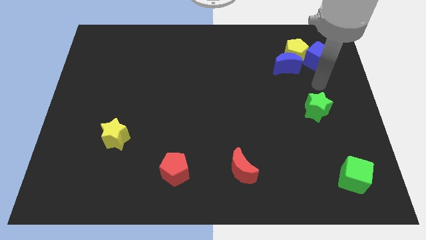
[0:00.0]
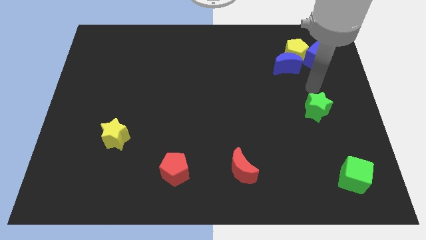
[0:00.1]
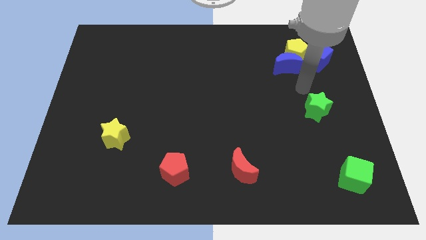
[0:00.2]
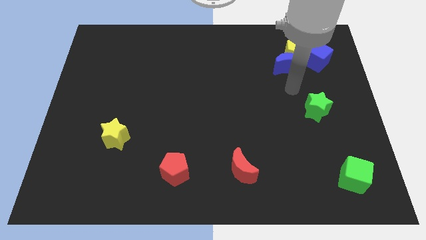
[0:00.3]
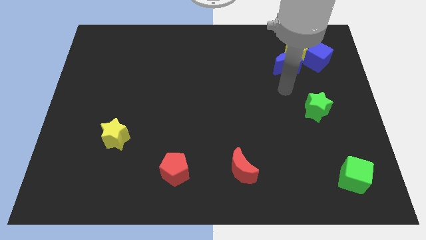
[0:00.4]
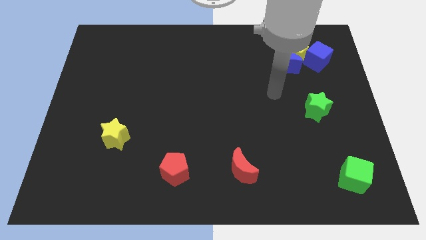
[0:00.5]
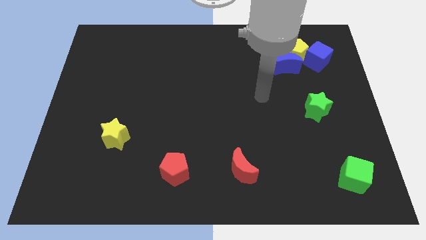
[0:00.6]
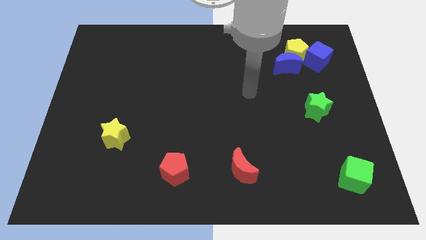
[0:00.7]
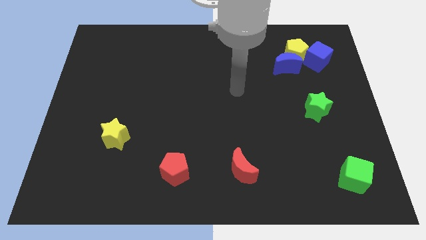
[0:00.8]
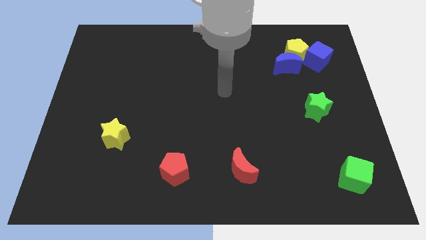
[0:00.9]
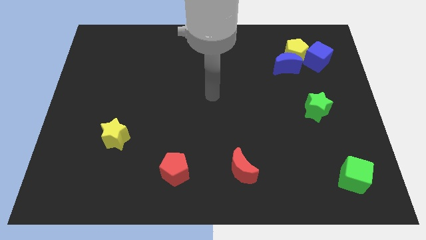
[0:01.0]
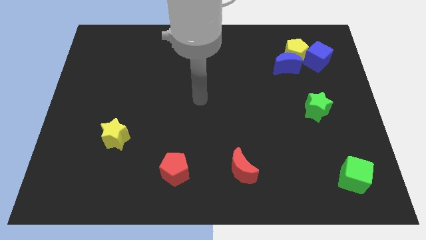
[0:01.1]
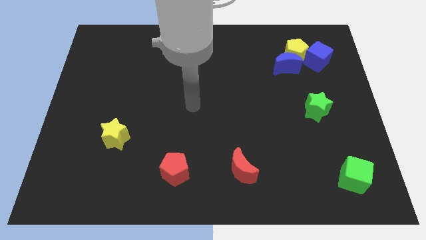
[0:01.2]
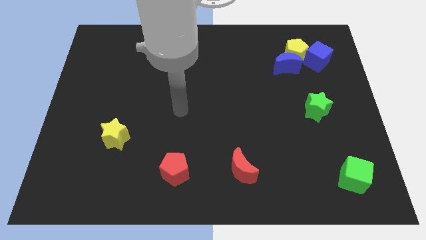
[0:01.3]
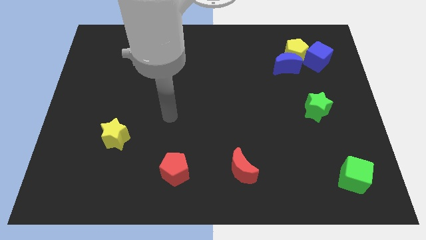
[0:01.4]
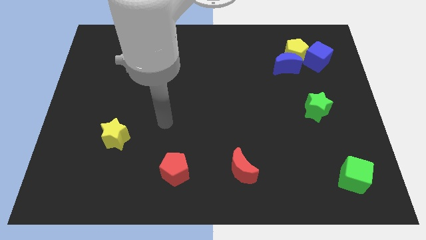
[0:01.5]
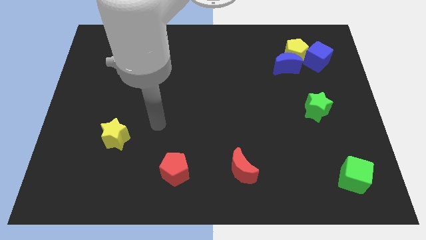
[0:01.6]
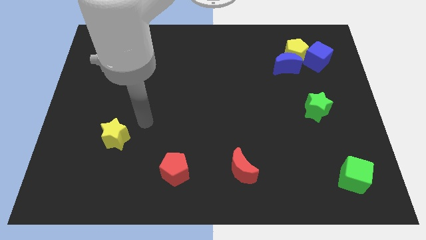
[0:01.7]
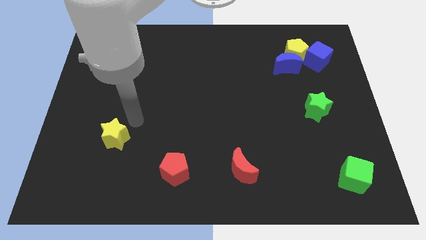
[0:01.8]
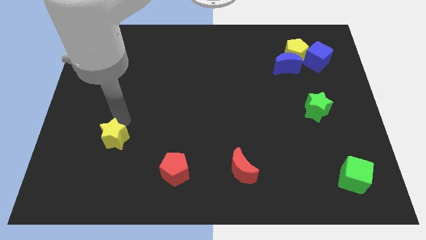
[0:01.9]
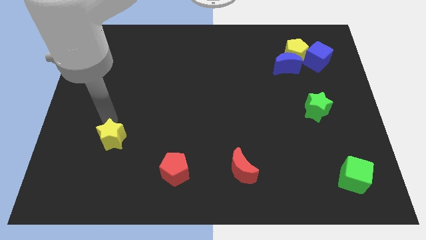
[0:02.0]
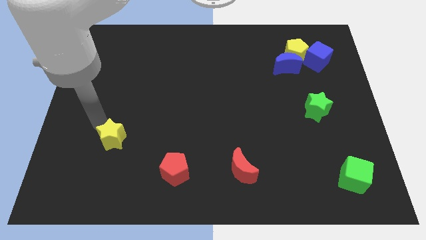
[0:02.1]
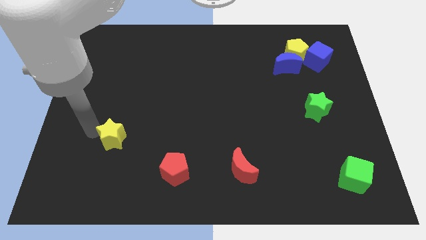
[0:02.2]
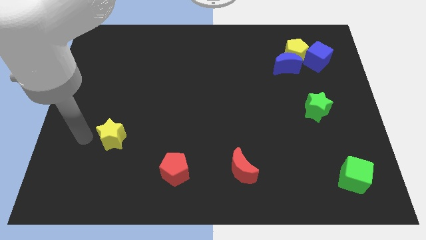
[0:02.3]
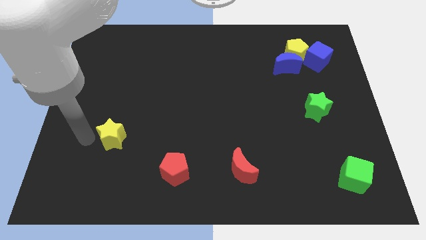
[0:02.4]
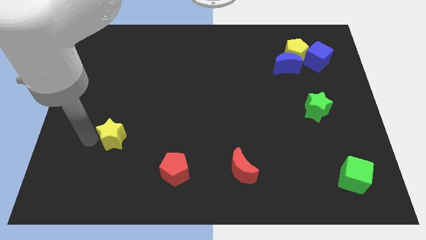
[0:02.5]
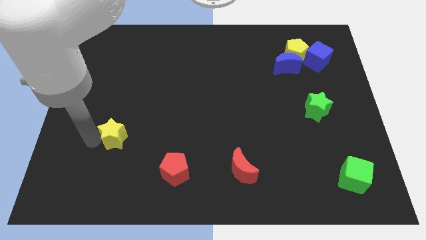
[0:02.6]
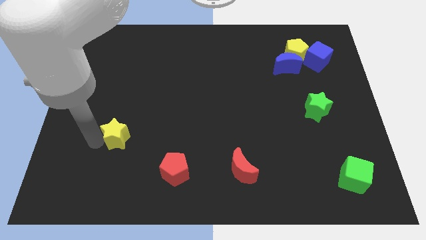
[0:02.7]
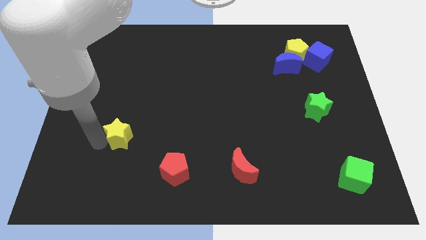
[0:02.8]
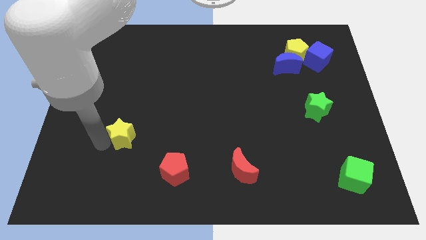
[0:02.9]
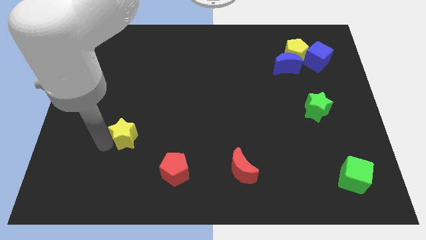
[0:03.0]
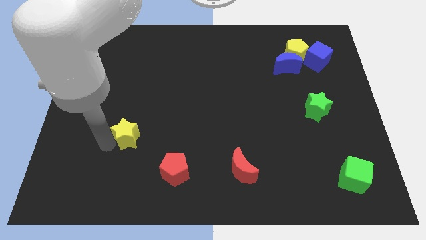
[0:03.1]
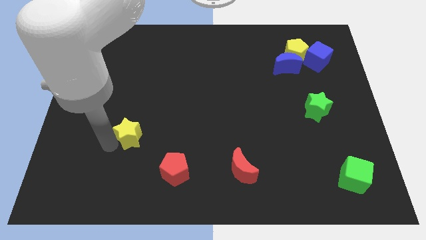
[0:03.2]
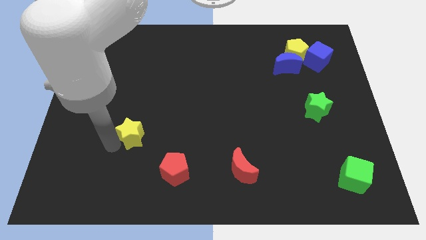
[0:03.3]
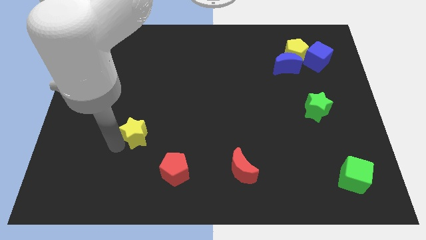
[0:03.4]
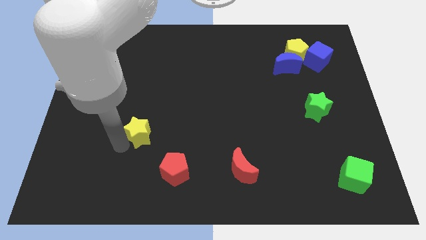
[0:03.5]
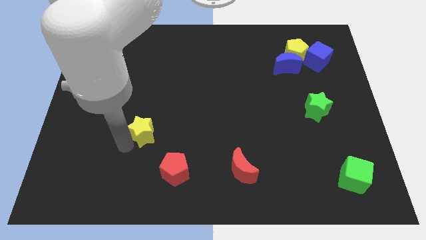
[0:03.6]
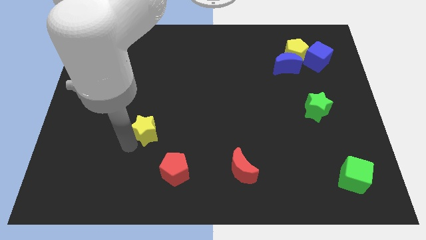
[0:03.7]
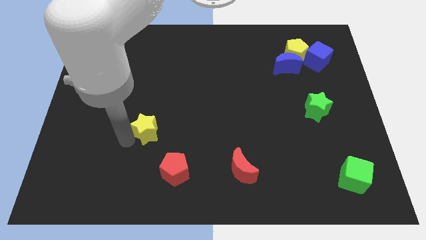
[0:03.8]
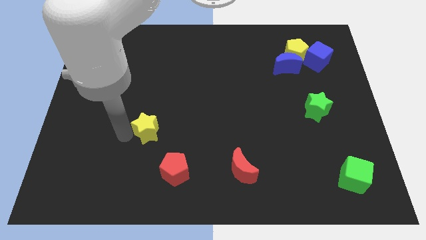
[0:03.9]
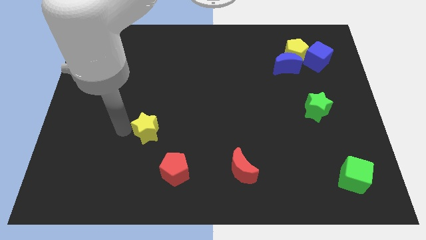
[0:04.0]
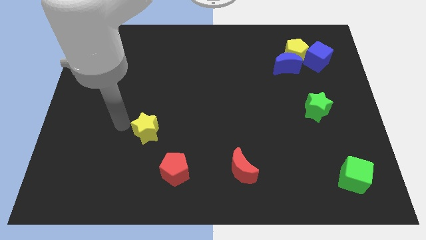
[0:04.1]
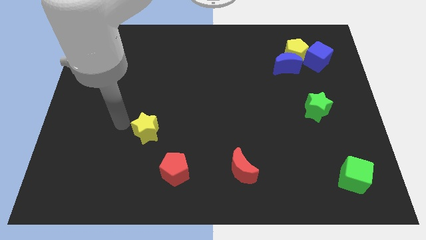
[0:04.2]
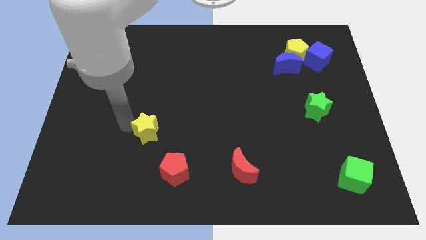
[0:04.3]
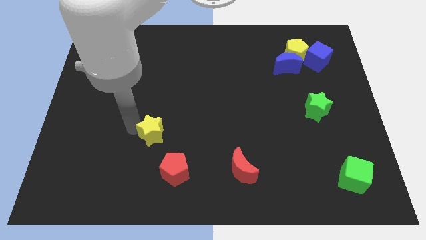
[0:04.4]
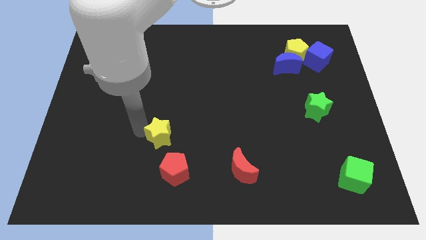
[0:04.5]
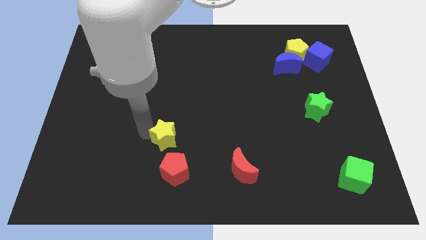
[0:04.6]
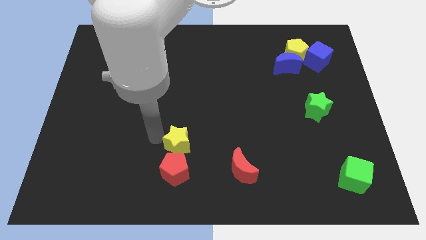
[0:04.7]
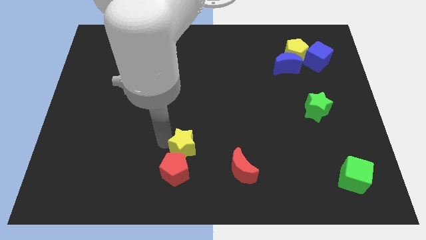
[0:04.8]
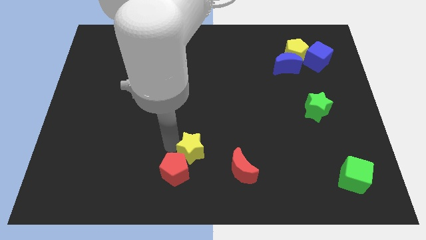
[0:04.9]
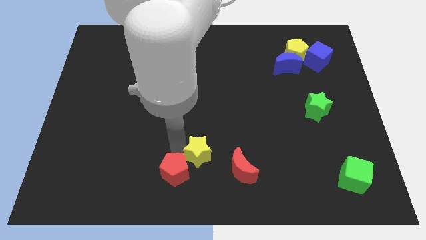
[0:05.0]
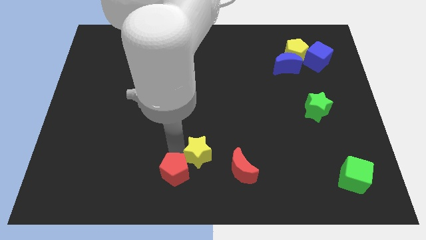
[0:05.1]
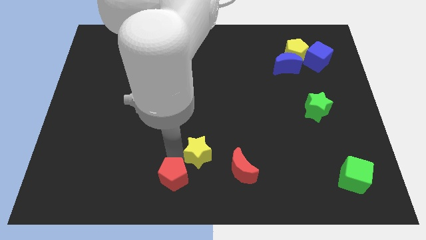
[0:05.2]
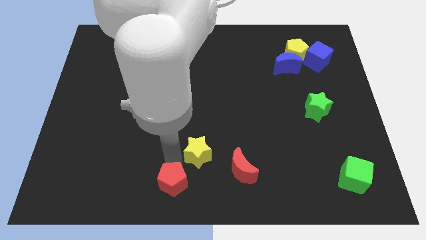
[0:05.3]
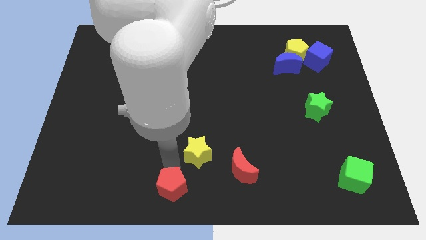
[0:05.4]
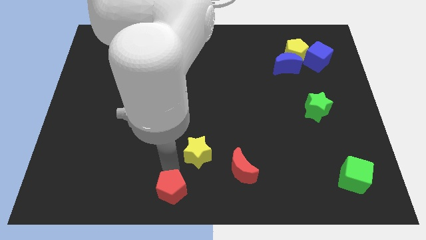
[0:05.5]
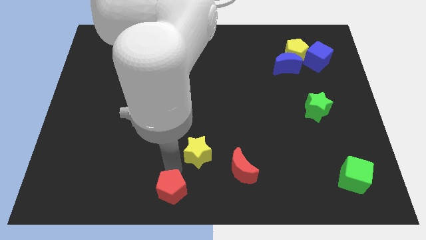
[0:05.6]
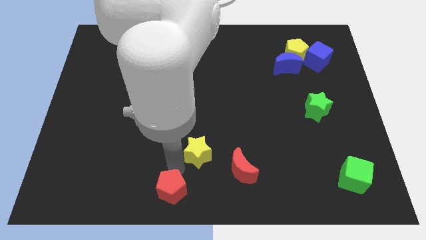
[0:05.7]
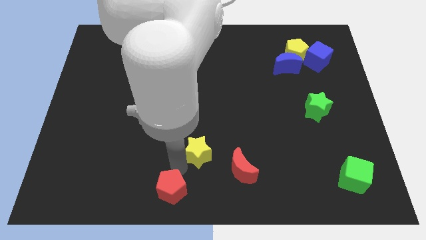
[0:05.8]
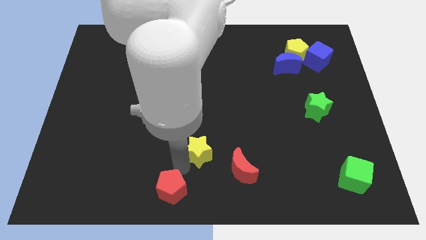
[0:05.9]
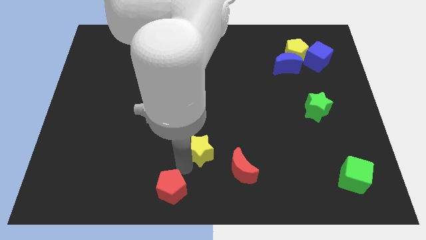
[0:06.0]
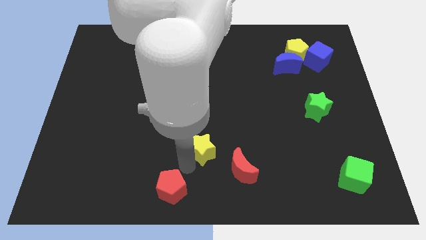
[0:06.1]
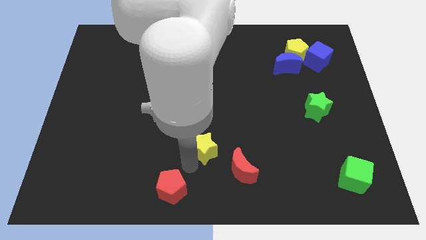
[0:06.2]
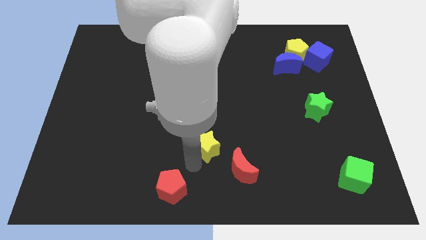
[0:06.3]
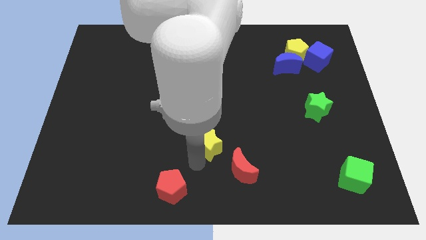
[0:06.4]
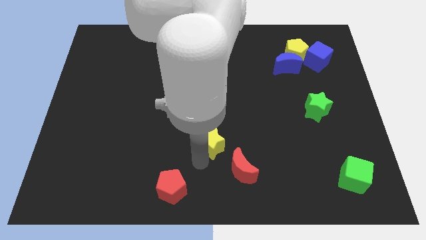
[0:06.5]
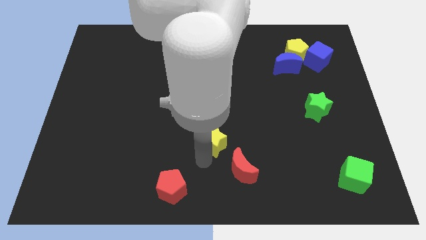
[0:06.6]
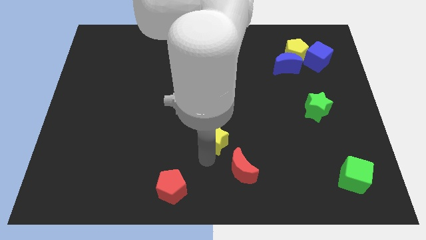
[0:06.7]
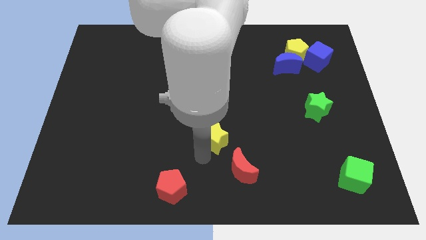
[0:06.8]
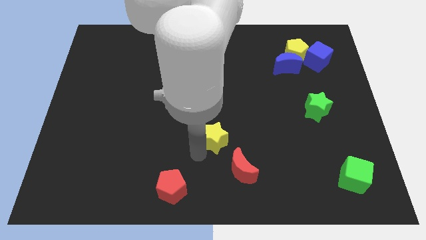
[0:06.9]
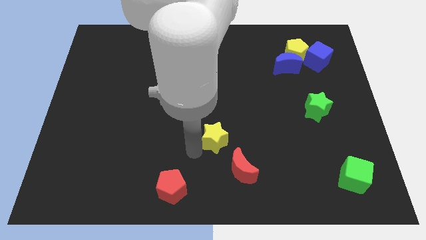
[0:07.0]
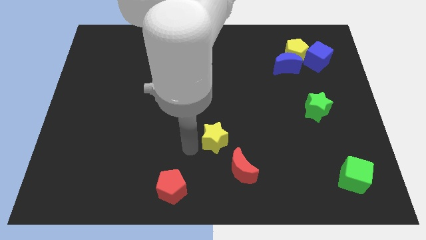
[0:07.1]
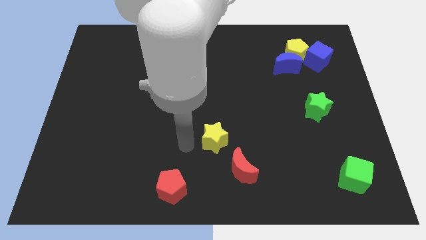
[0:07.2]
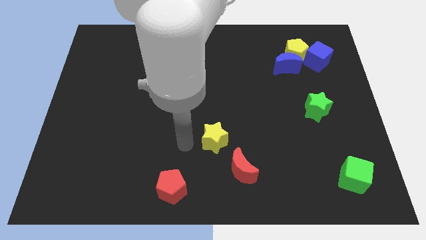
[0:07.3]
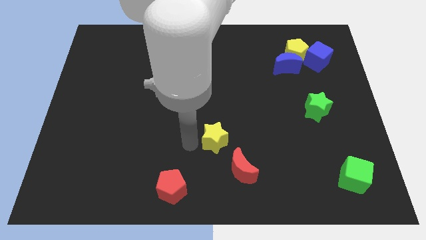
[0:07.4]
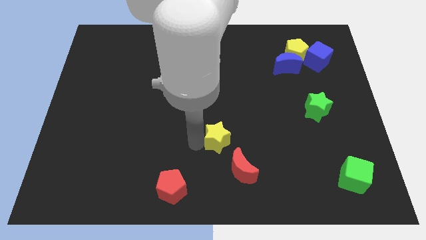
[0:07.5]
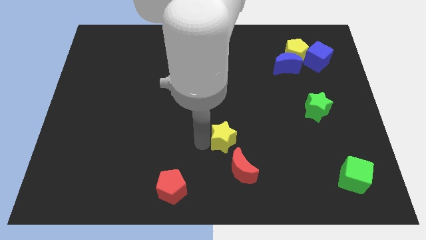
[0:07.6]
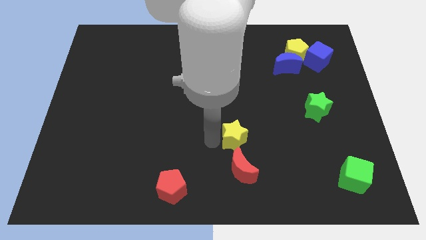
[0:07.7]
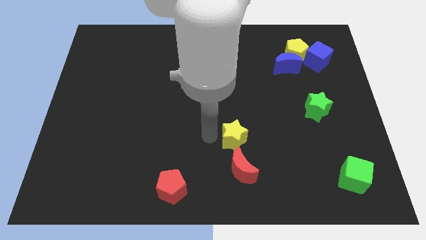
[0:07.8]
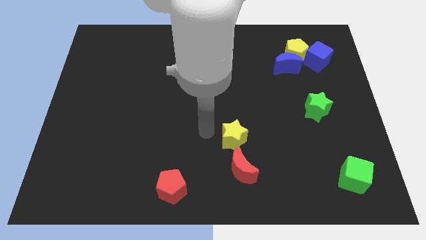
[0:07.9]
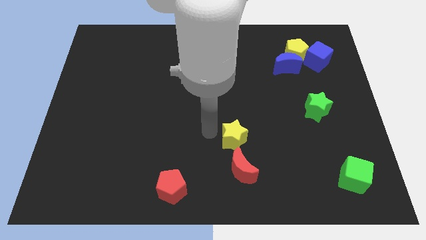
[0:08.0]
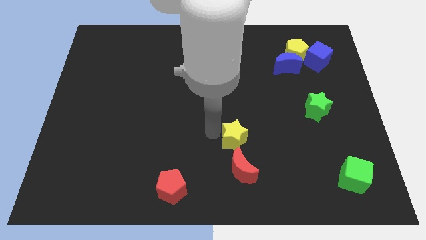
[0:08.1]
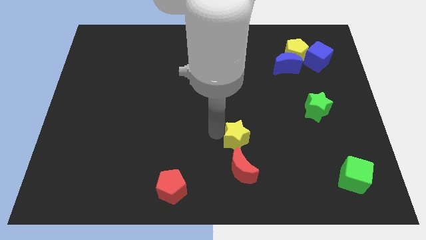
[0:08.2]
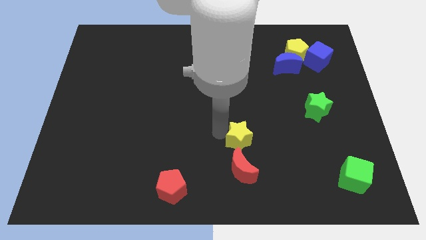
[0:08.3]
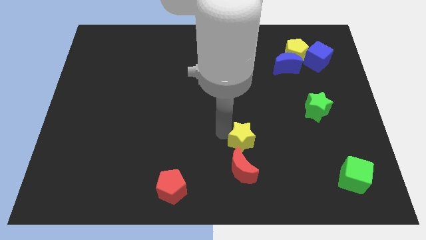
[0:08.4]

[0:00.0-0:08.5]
slide the yellow star diagonally up and to the right of the red moon
